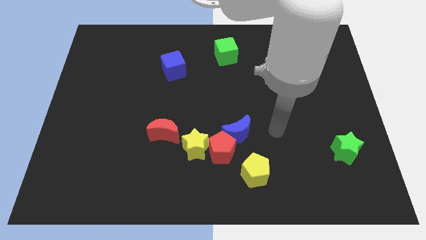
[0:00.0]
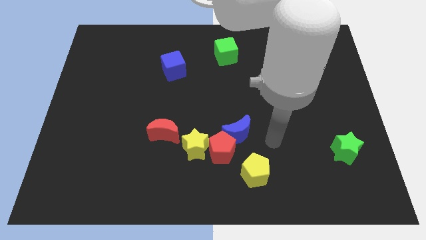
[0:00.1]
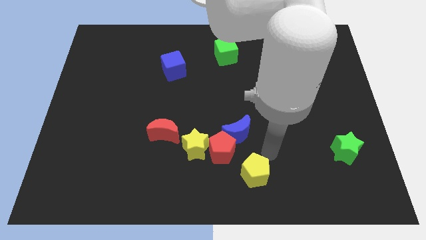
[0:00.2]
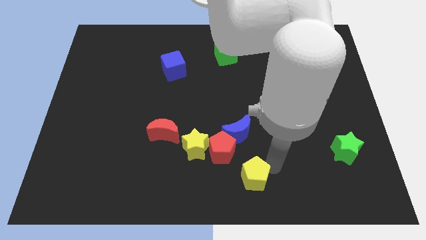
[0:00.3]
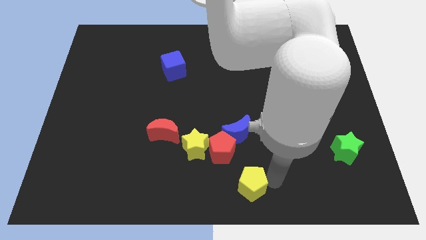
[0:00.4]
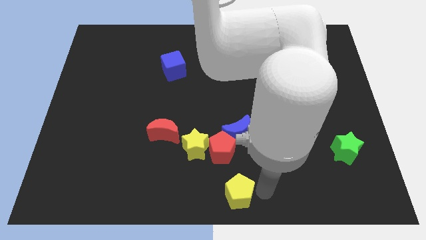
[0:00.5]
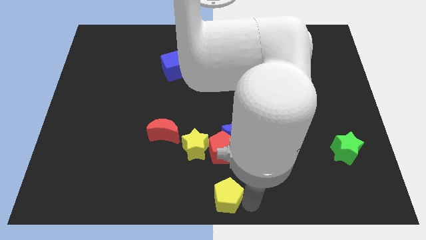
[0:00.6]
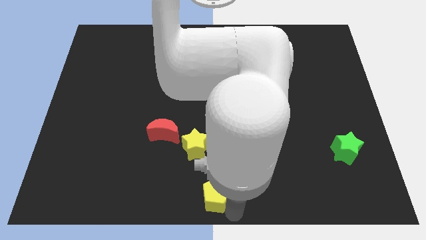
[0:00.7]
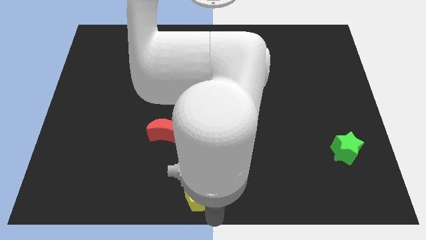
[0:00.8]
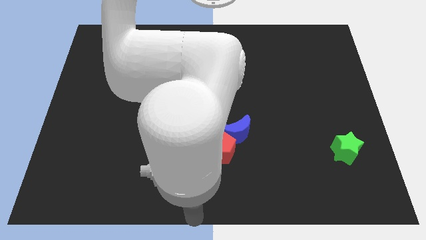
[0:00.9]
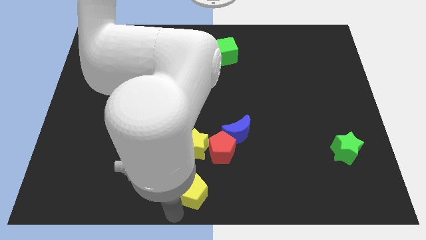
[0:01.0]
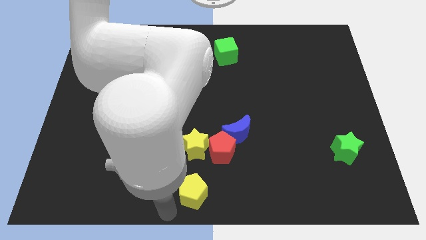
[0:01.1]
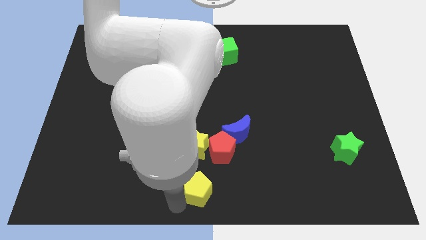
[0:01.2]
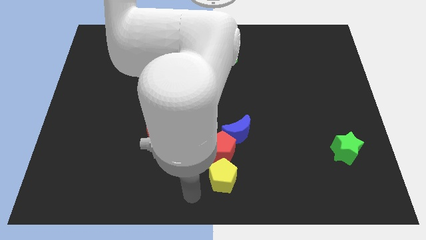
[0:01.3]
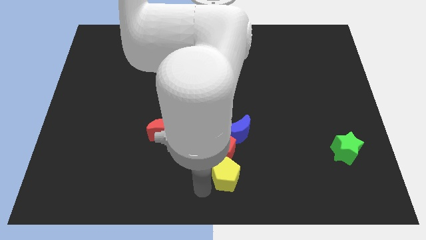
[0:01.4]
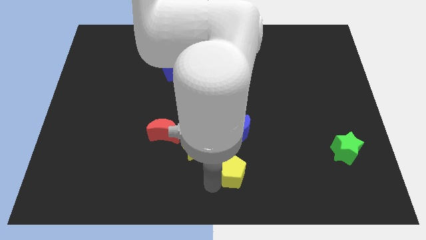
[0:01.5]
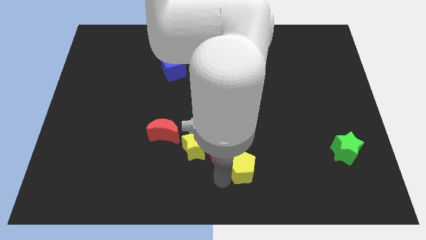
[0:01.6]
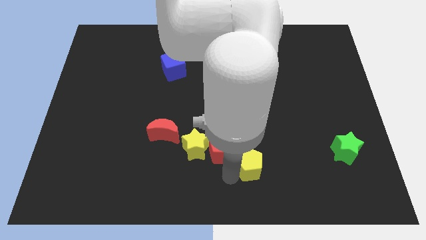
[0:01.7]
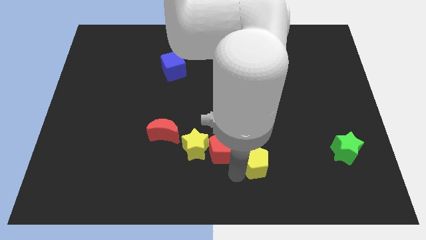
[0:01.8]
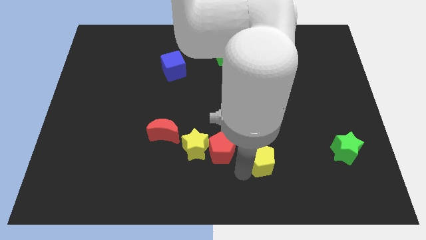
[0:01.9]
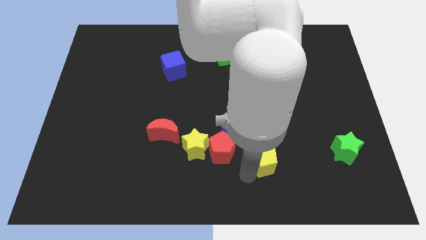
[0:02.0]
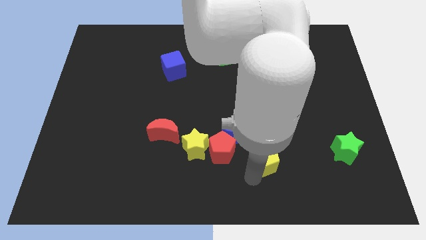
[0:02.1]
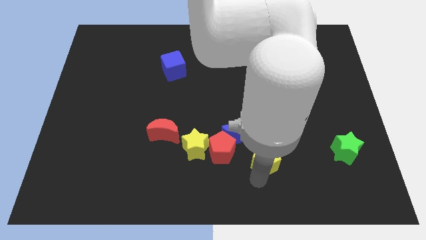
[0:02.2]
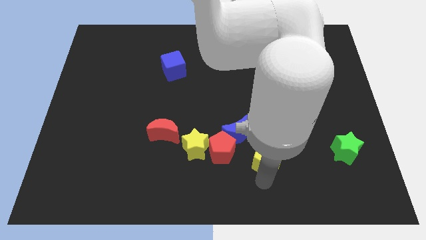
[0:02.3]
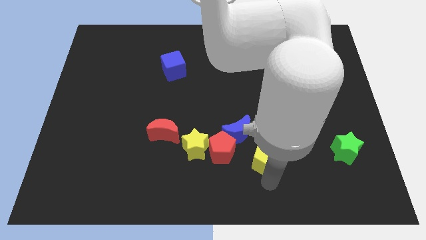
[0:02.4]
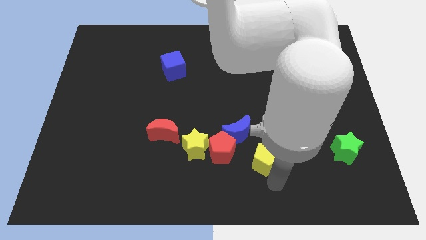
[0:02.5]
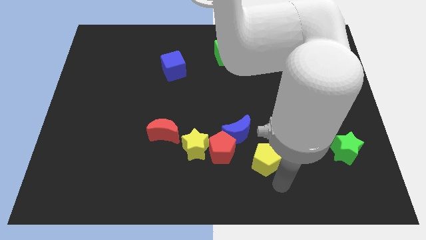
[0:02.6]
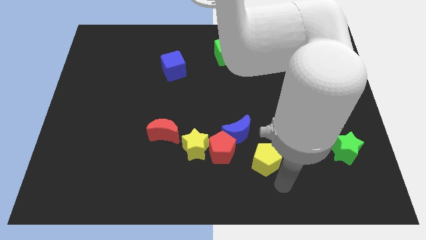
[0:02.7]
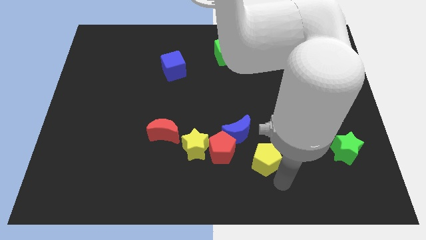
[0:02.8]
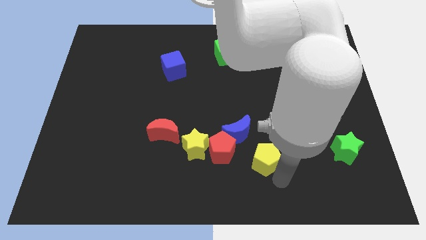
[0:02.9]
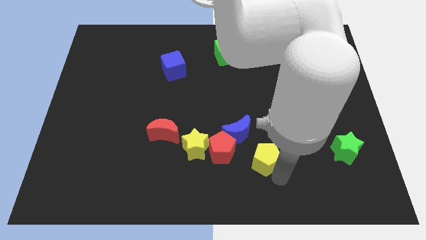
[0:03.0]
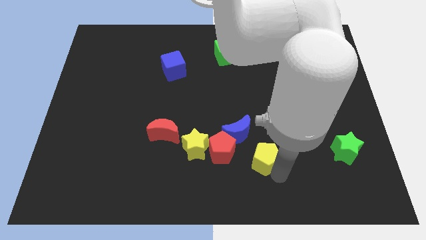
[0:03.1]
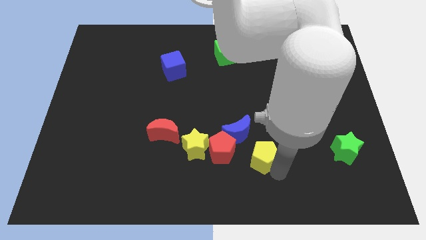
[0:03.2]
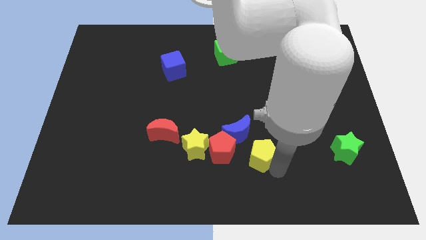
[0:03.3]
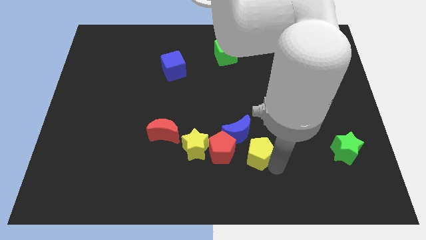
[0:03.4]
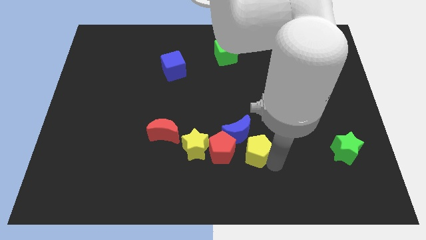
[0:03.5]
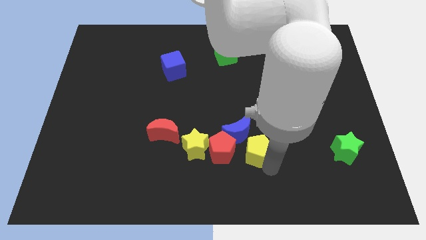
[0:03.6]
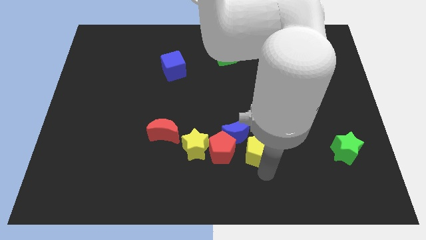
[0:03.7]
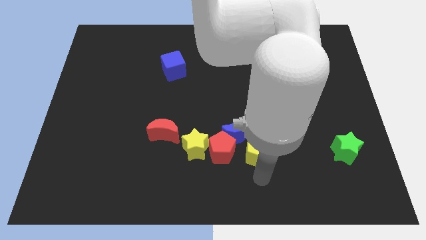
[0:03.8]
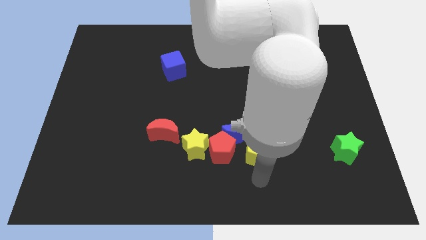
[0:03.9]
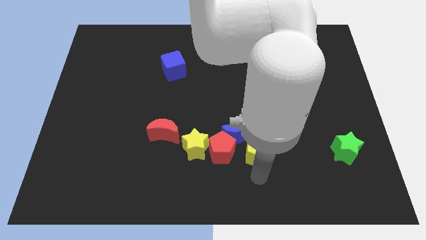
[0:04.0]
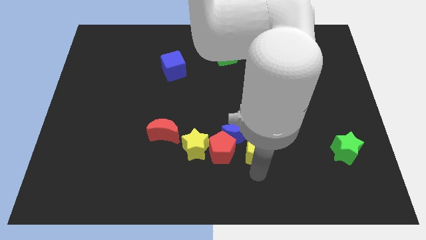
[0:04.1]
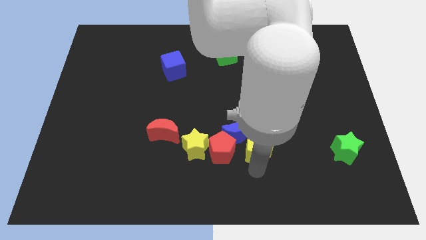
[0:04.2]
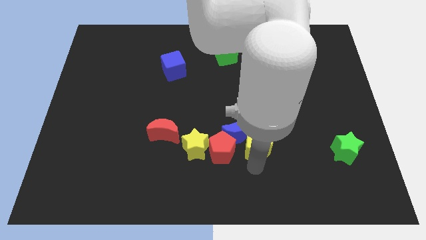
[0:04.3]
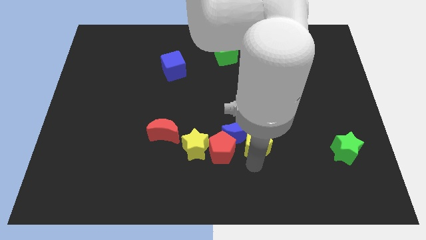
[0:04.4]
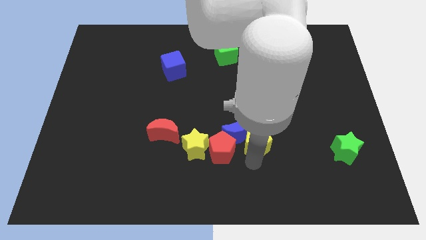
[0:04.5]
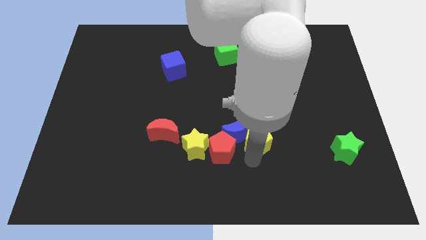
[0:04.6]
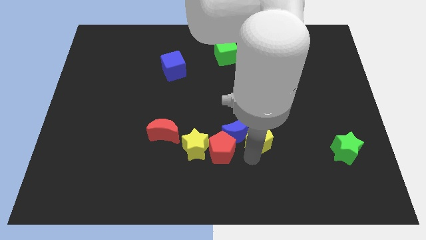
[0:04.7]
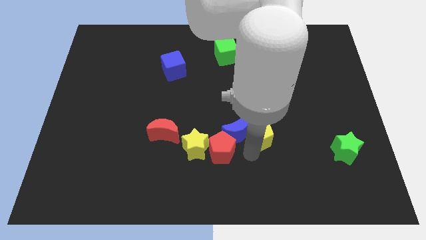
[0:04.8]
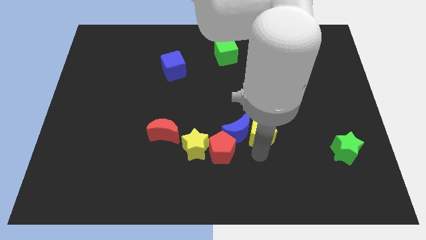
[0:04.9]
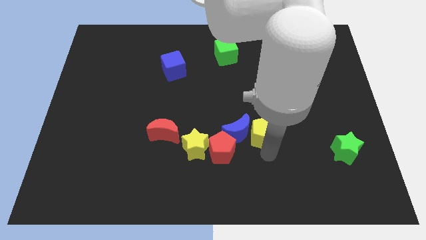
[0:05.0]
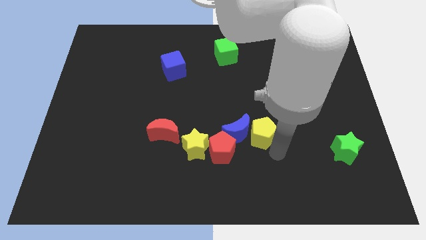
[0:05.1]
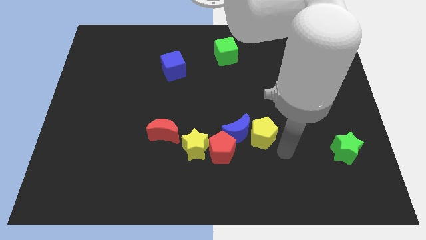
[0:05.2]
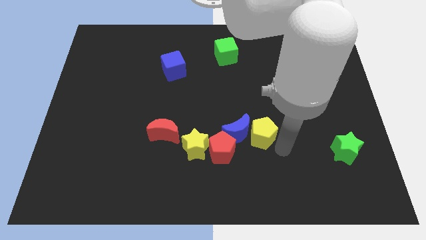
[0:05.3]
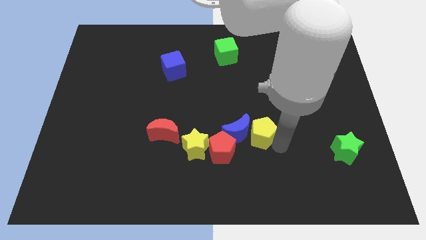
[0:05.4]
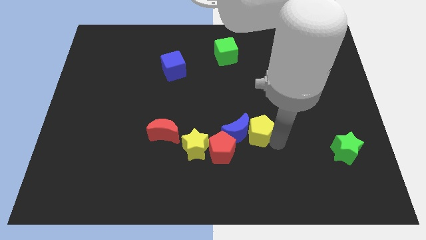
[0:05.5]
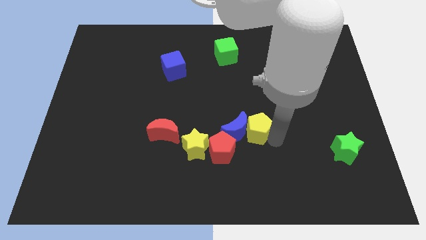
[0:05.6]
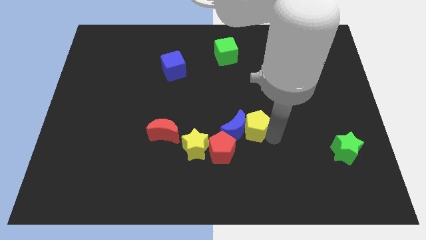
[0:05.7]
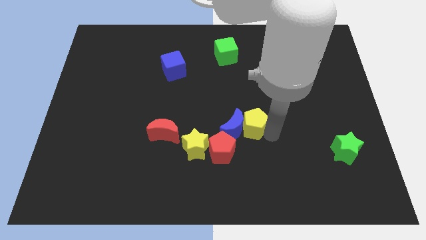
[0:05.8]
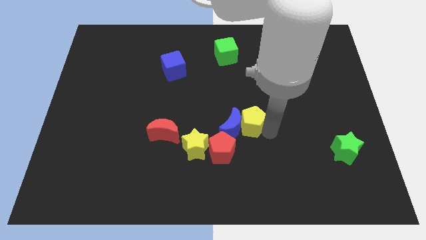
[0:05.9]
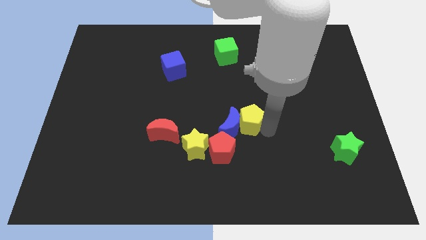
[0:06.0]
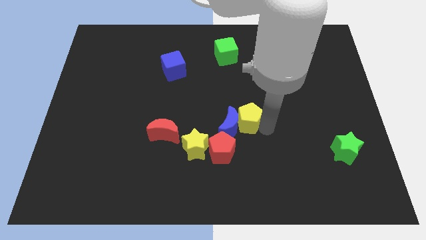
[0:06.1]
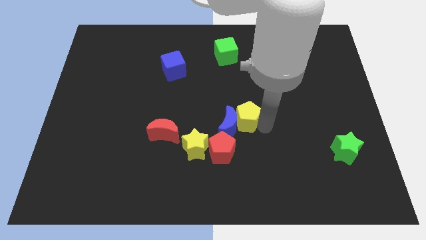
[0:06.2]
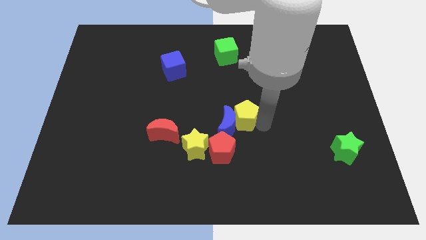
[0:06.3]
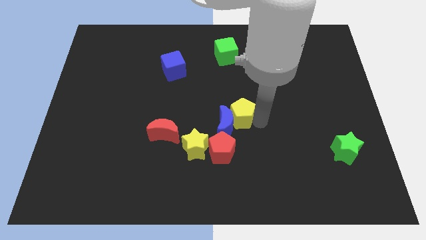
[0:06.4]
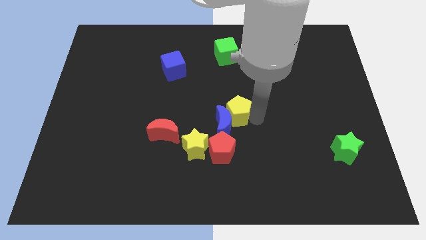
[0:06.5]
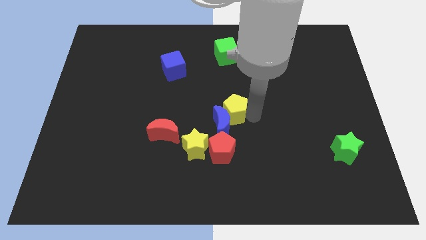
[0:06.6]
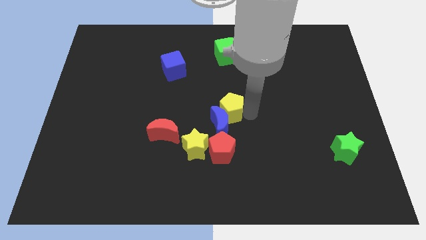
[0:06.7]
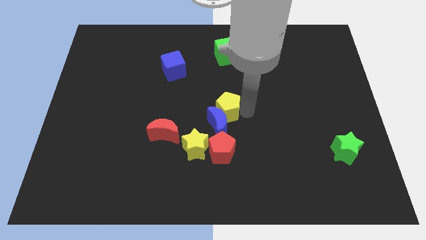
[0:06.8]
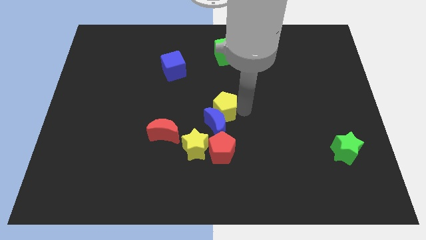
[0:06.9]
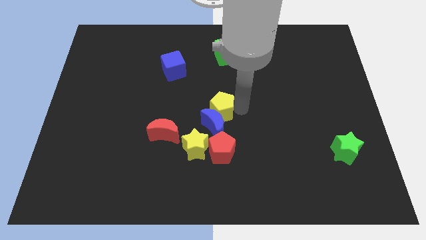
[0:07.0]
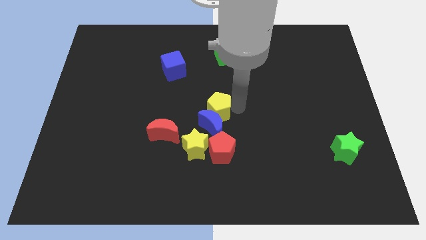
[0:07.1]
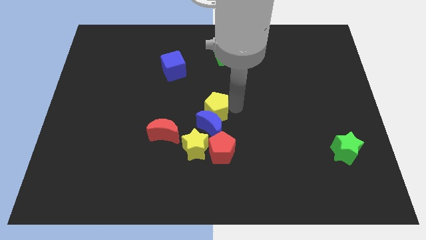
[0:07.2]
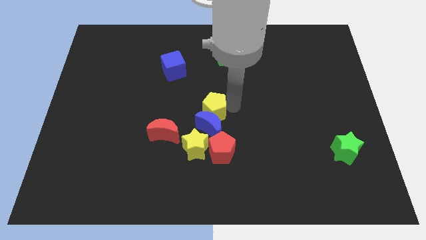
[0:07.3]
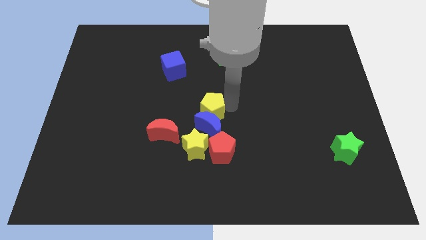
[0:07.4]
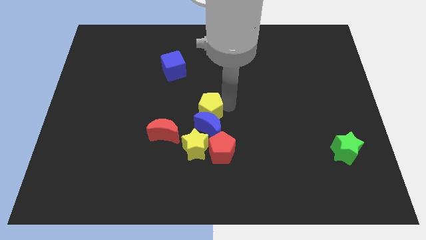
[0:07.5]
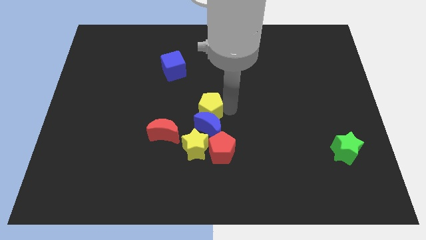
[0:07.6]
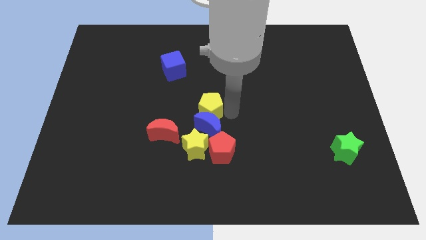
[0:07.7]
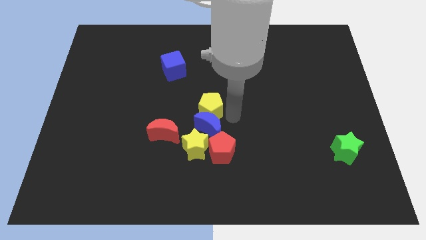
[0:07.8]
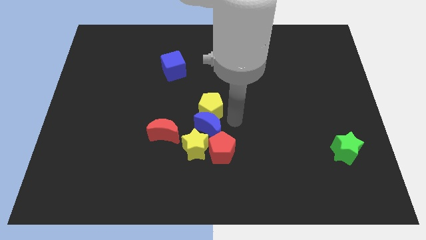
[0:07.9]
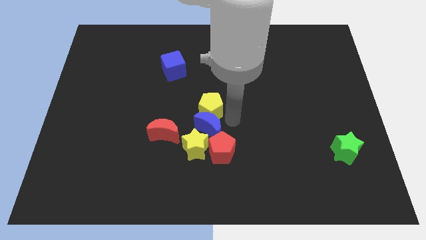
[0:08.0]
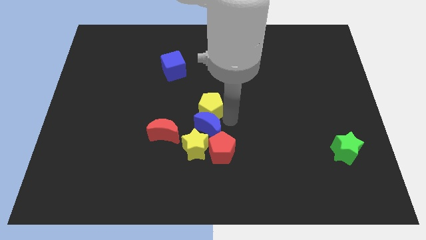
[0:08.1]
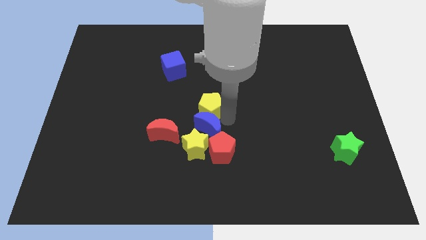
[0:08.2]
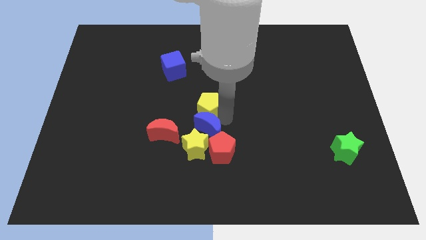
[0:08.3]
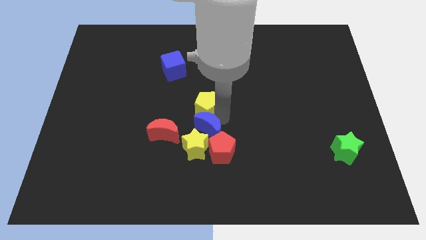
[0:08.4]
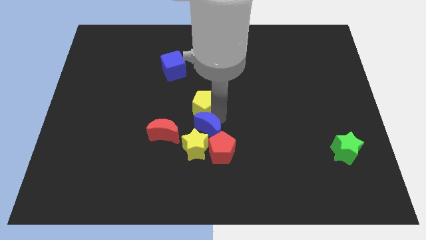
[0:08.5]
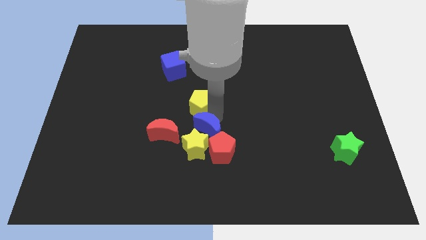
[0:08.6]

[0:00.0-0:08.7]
push the yellow pentagon up and left
